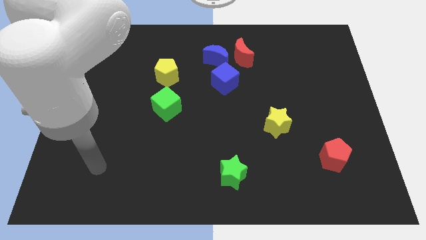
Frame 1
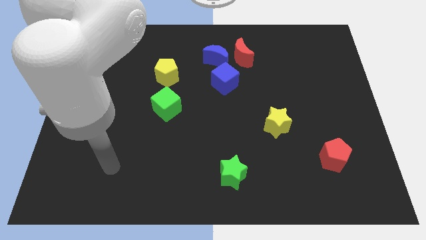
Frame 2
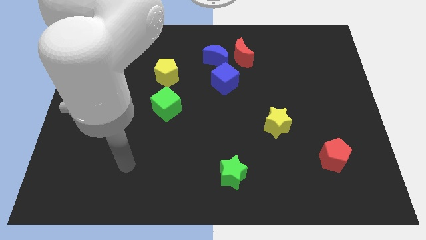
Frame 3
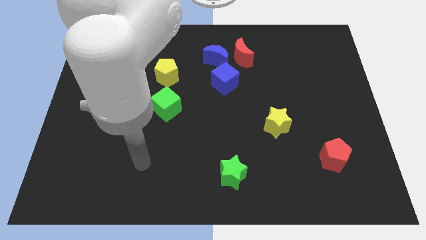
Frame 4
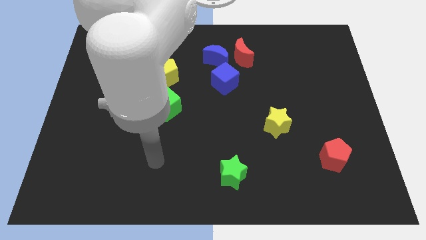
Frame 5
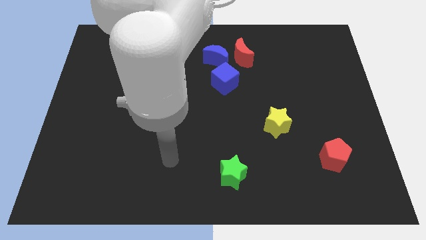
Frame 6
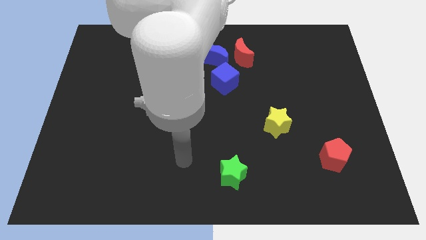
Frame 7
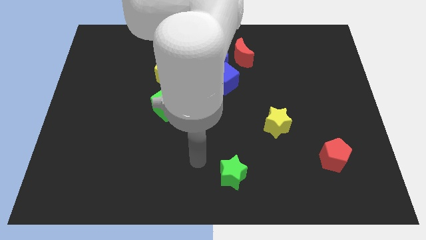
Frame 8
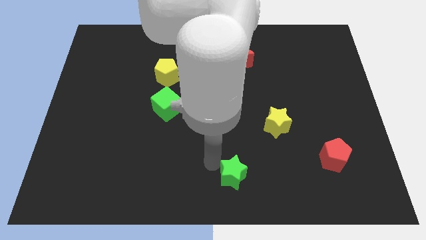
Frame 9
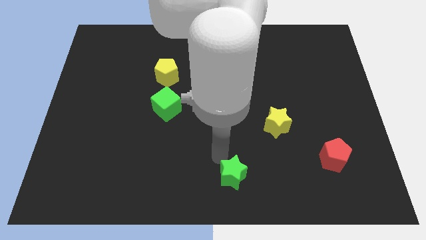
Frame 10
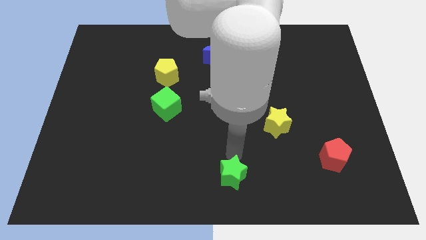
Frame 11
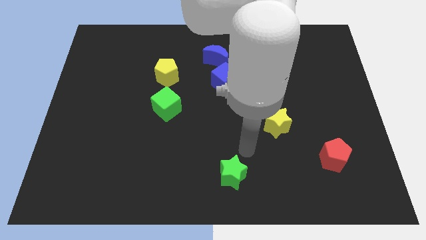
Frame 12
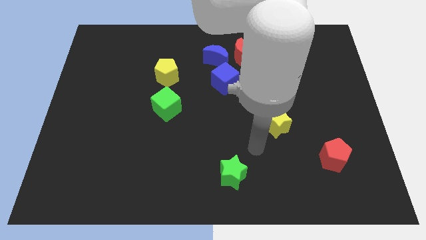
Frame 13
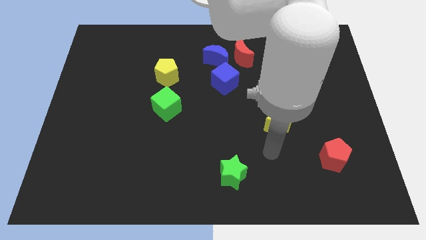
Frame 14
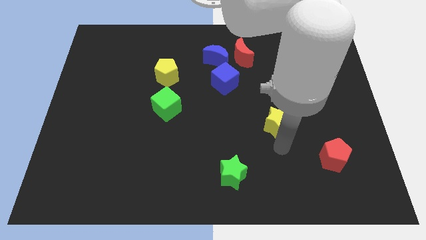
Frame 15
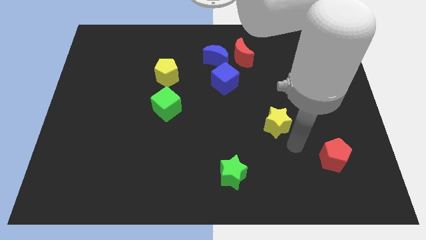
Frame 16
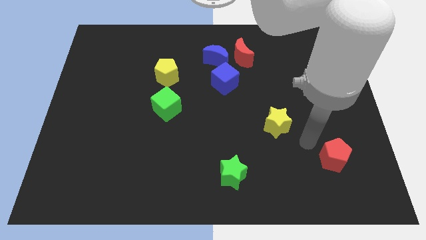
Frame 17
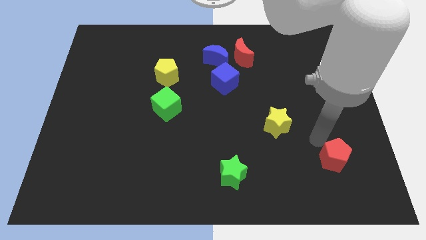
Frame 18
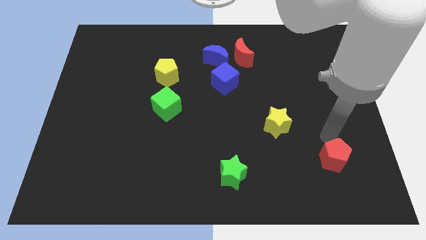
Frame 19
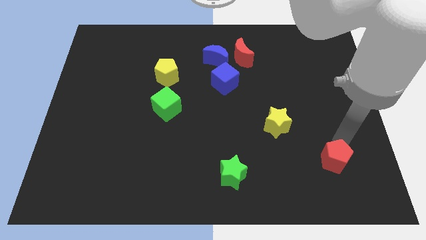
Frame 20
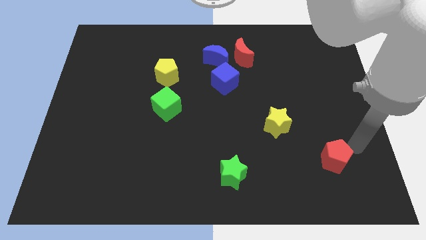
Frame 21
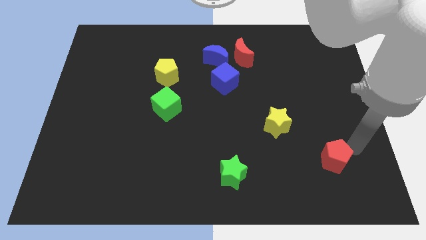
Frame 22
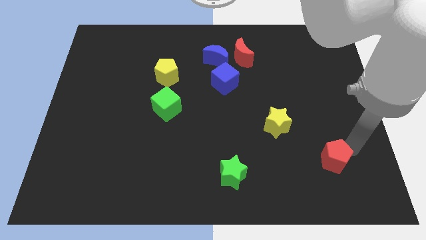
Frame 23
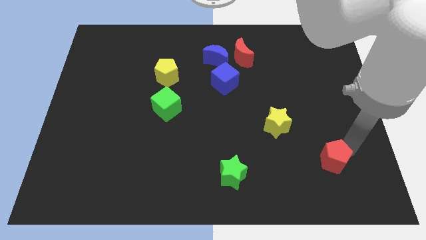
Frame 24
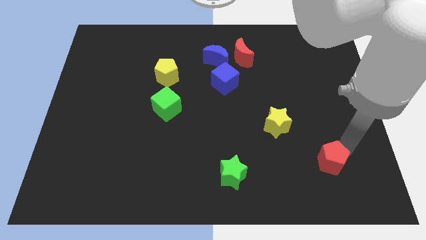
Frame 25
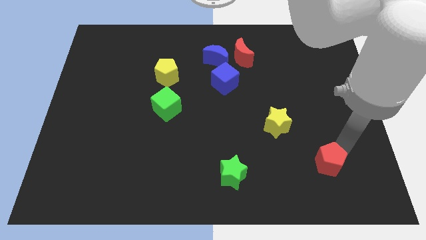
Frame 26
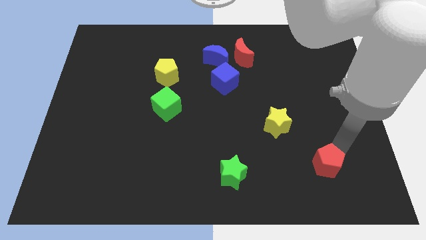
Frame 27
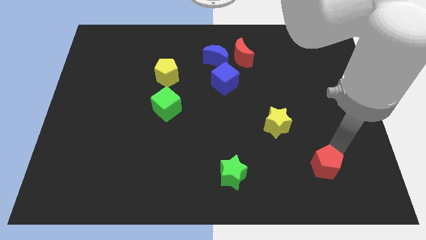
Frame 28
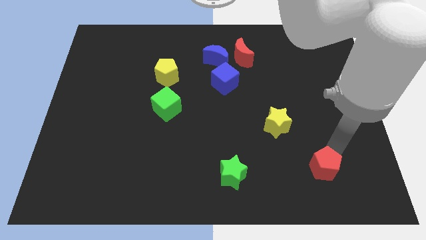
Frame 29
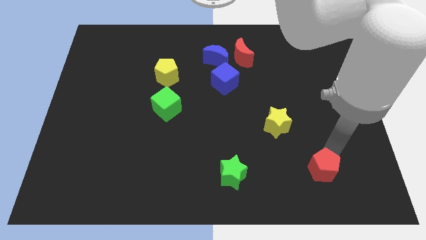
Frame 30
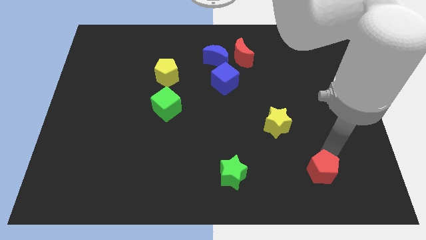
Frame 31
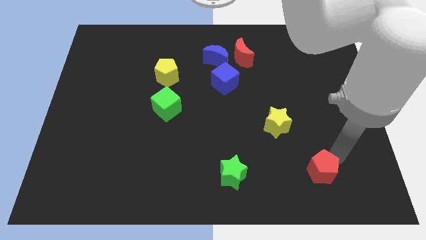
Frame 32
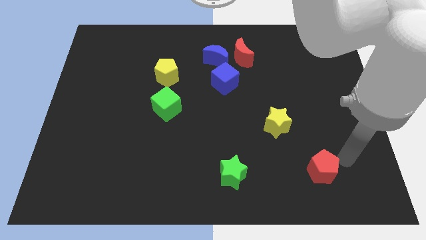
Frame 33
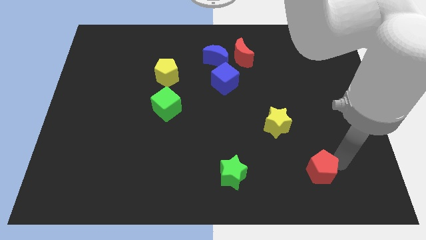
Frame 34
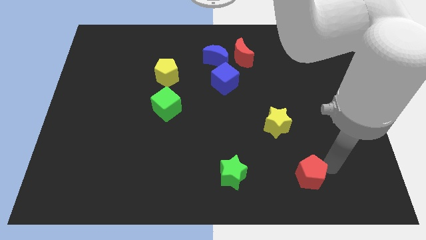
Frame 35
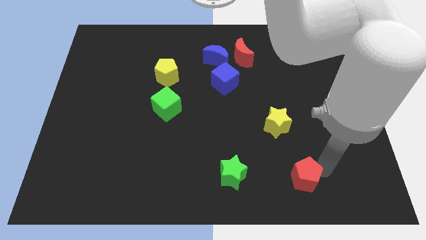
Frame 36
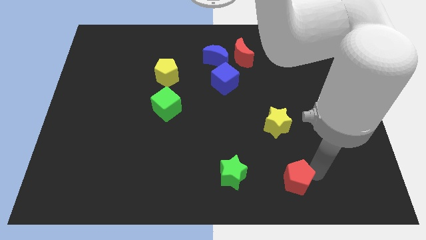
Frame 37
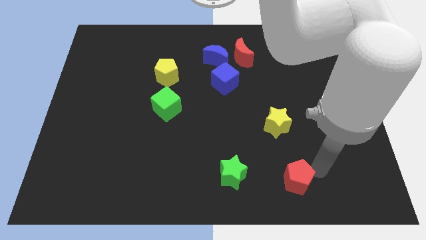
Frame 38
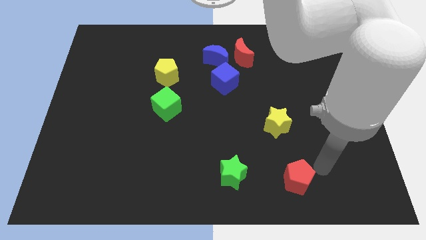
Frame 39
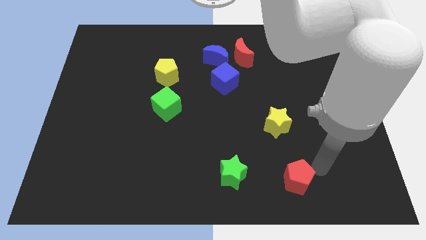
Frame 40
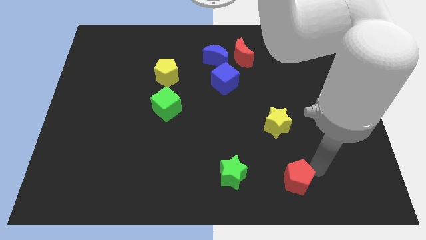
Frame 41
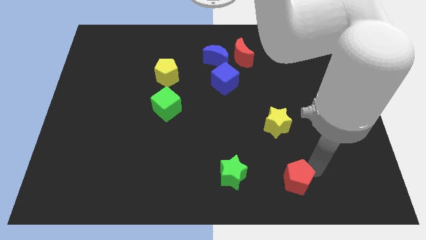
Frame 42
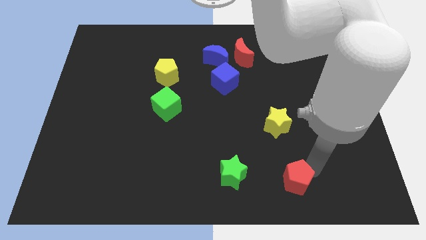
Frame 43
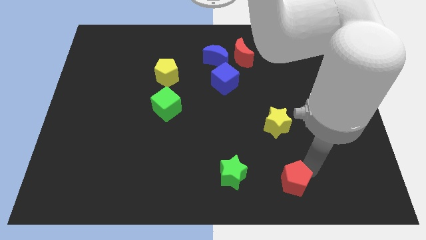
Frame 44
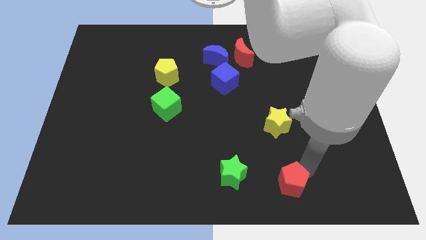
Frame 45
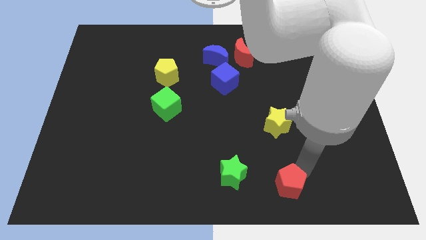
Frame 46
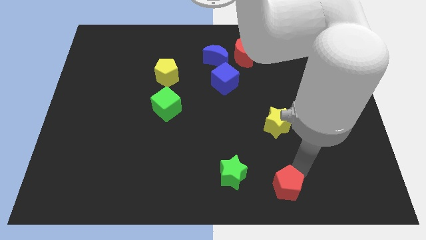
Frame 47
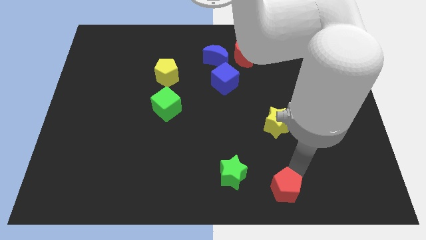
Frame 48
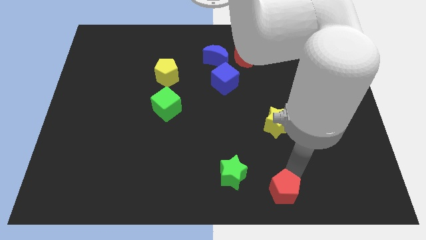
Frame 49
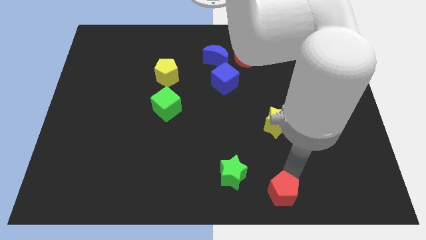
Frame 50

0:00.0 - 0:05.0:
slide the red pentagon to the bottom side

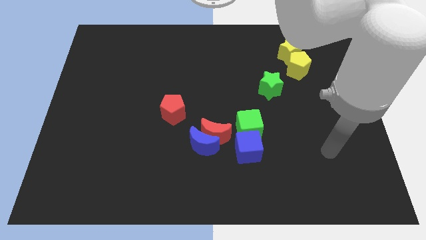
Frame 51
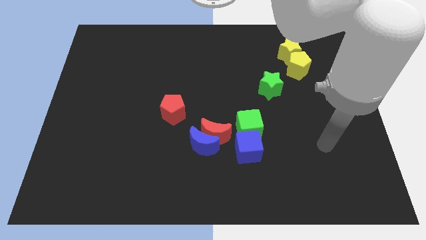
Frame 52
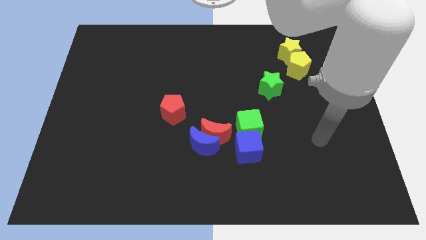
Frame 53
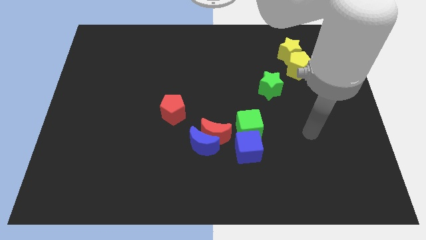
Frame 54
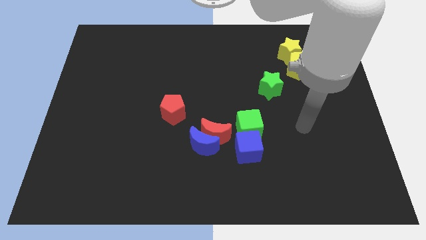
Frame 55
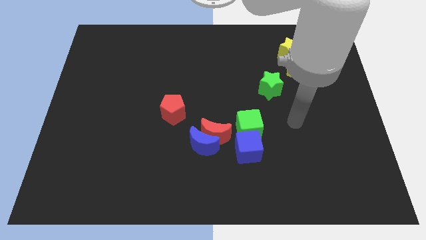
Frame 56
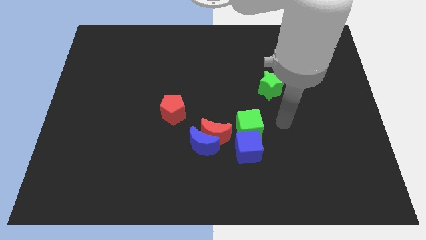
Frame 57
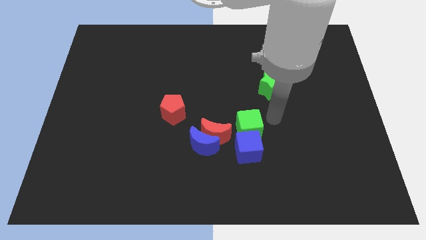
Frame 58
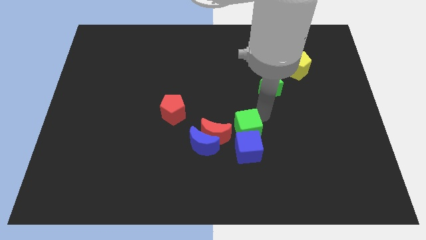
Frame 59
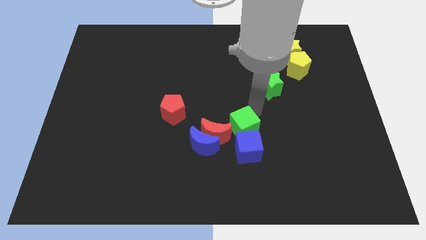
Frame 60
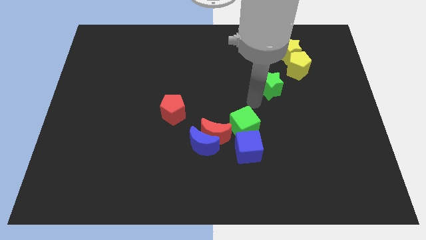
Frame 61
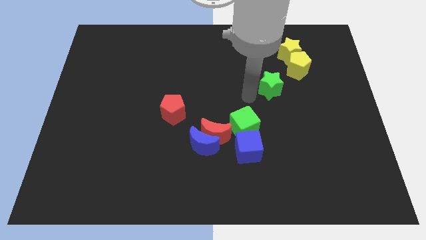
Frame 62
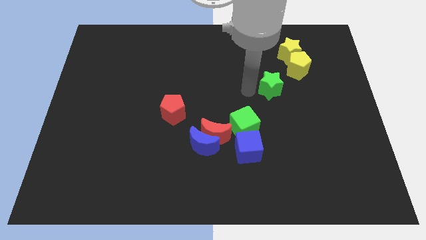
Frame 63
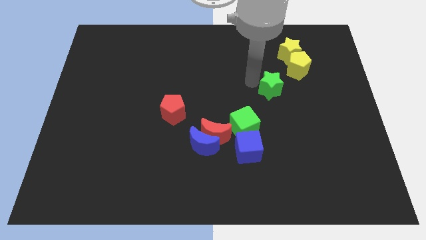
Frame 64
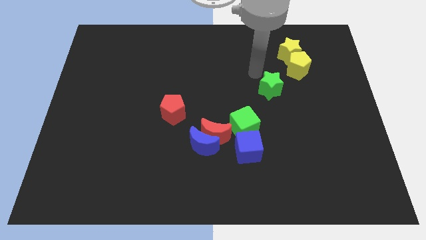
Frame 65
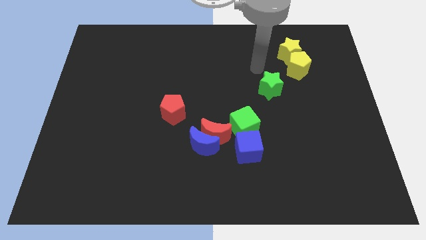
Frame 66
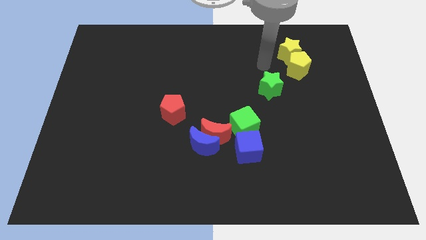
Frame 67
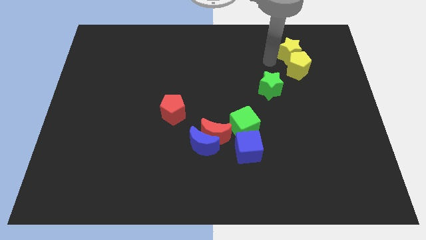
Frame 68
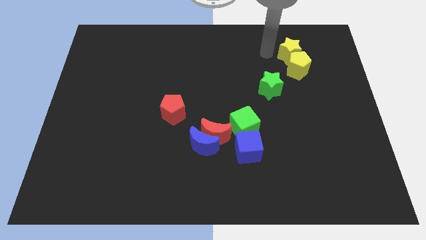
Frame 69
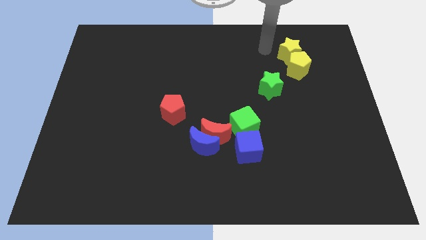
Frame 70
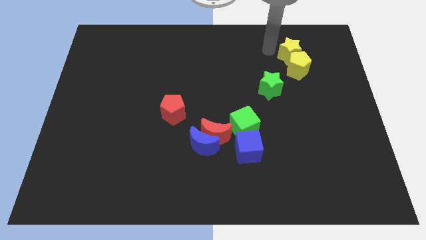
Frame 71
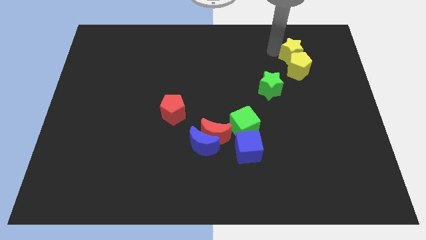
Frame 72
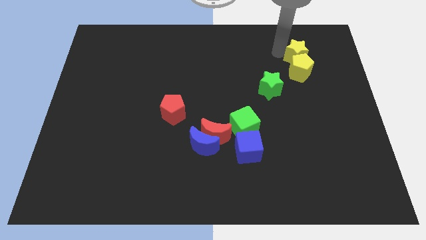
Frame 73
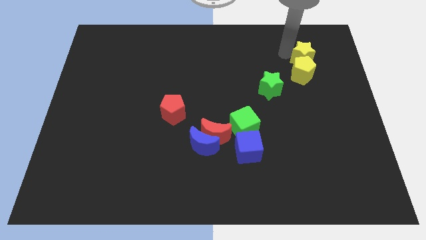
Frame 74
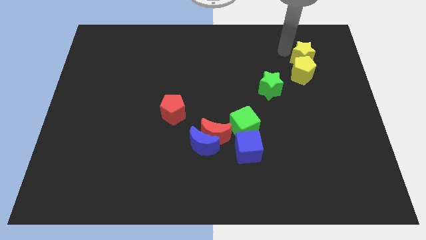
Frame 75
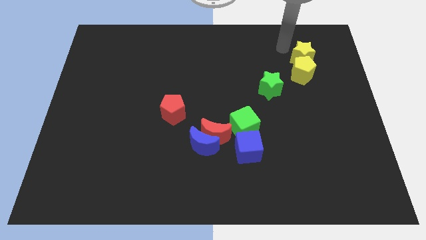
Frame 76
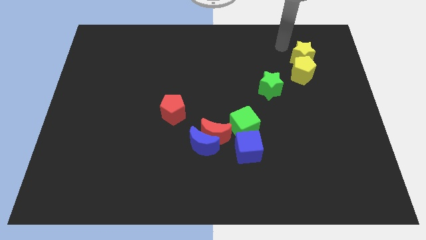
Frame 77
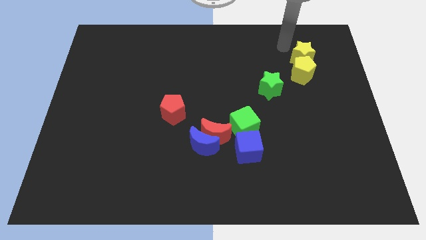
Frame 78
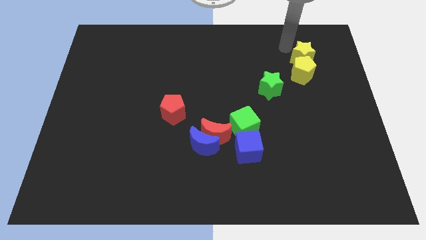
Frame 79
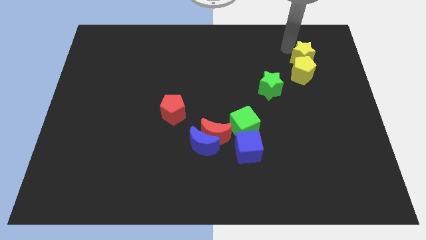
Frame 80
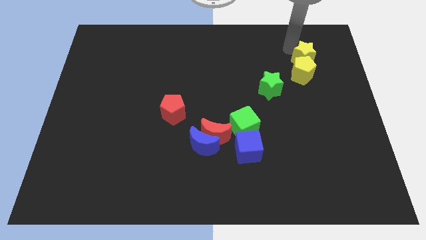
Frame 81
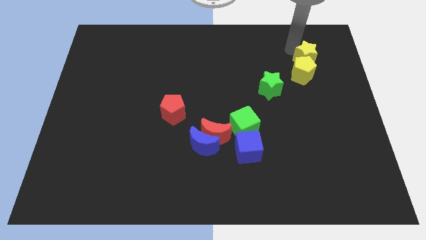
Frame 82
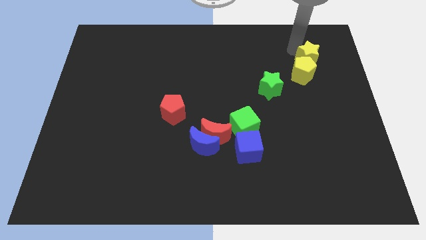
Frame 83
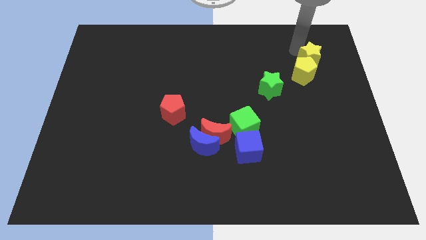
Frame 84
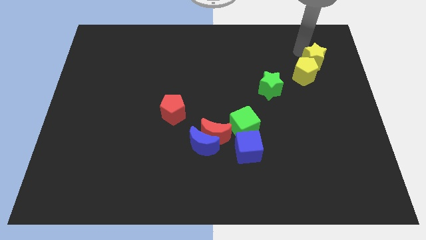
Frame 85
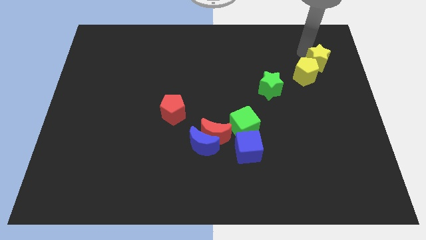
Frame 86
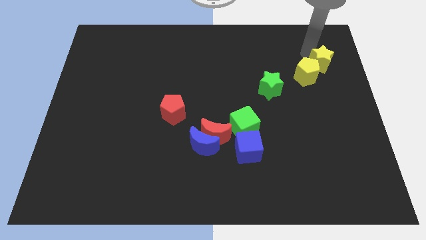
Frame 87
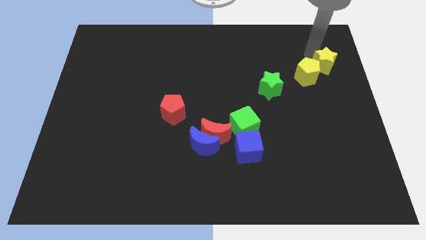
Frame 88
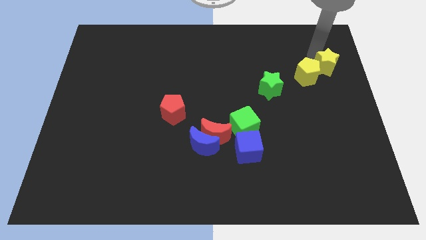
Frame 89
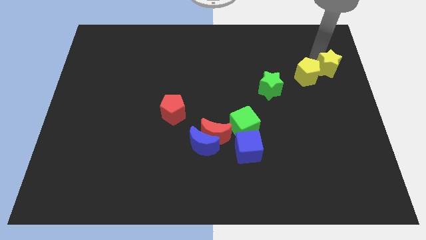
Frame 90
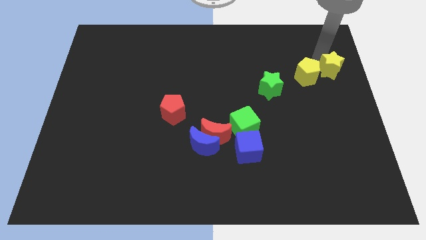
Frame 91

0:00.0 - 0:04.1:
push the yellow star to the right side of the board
